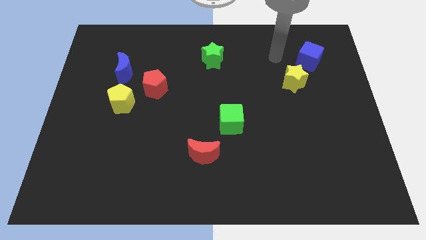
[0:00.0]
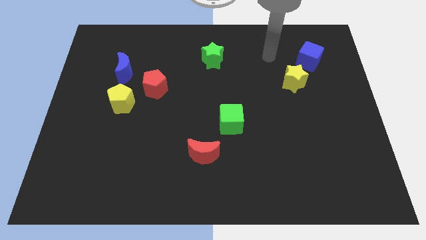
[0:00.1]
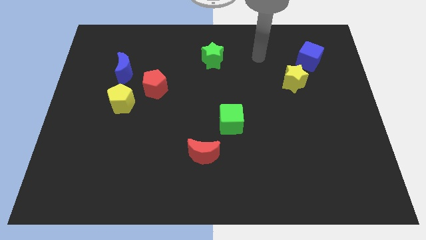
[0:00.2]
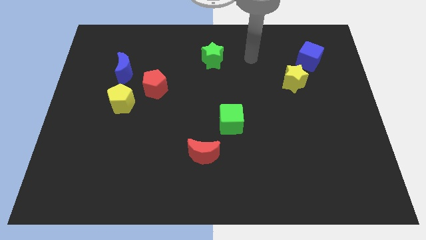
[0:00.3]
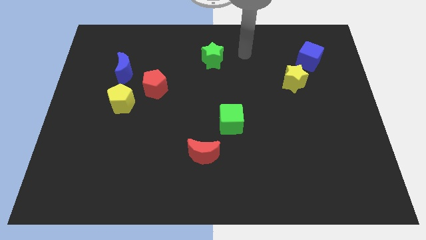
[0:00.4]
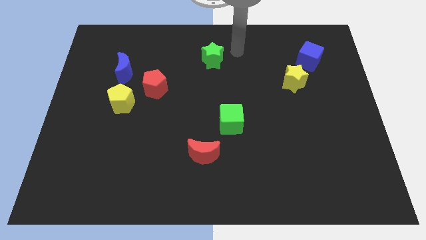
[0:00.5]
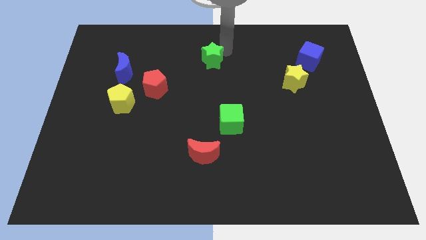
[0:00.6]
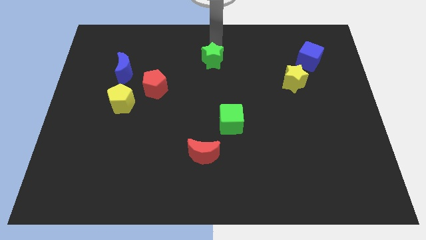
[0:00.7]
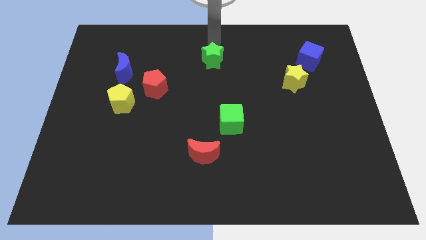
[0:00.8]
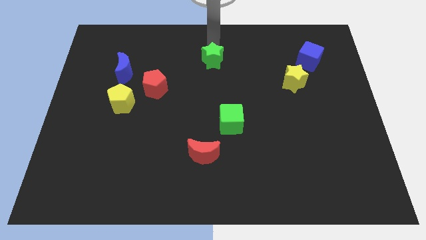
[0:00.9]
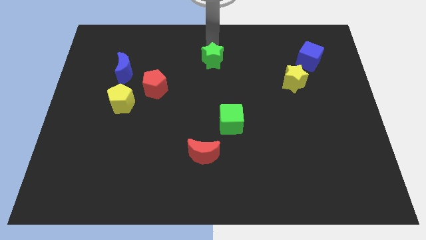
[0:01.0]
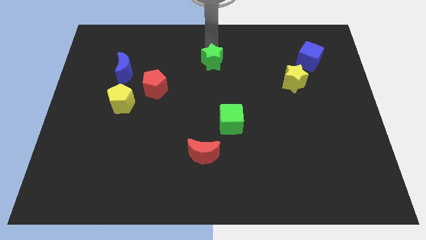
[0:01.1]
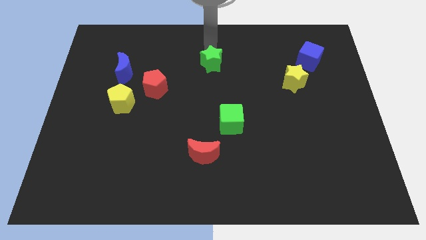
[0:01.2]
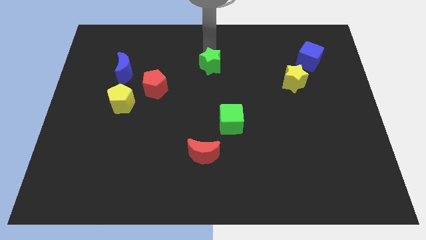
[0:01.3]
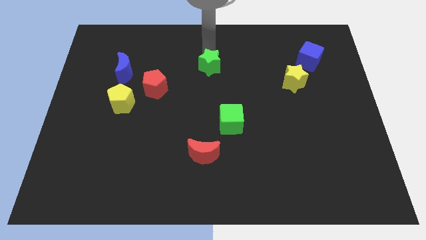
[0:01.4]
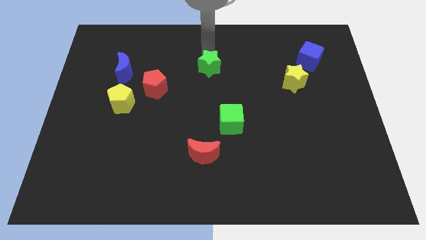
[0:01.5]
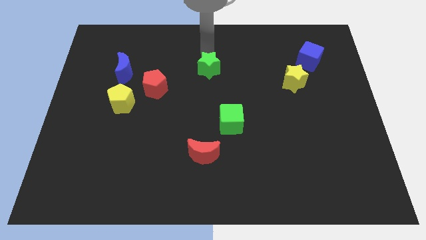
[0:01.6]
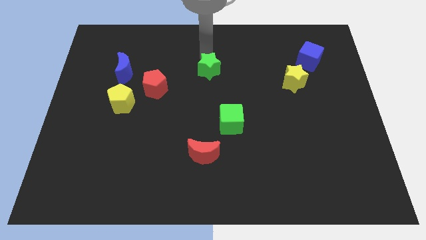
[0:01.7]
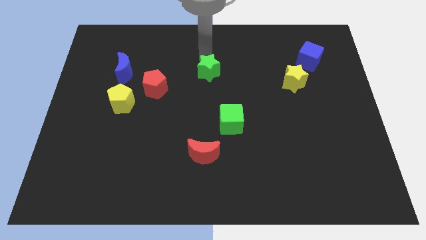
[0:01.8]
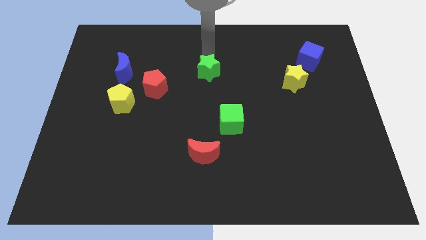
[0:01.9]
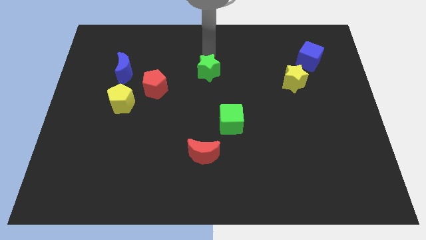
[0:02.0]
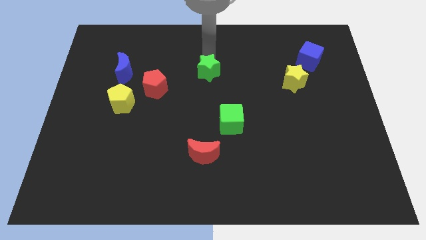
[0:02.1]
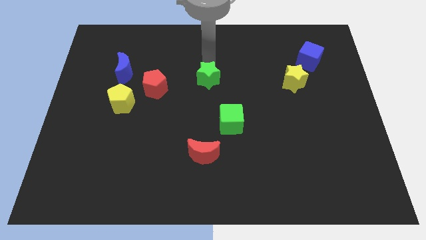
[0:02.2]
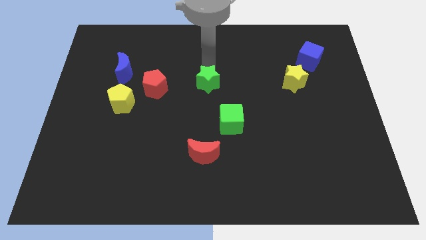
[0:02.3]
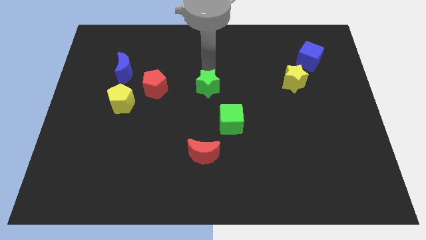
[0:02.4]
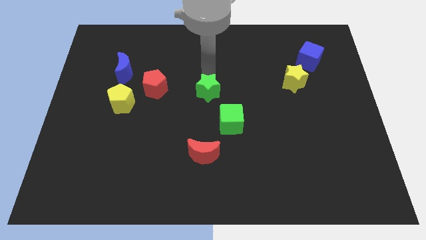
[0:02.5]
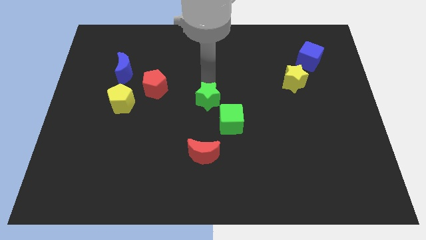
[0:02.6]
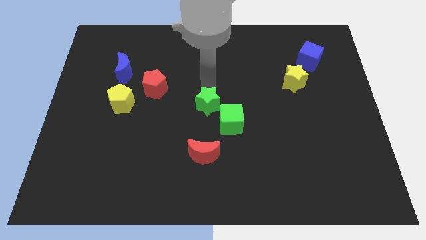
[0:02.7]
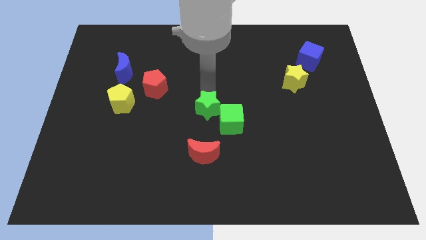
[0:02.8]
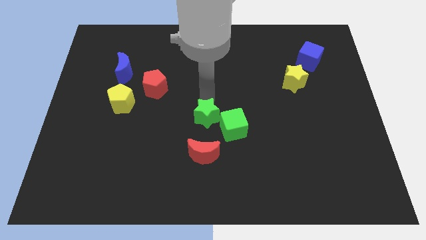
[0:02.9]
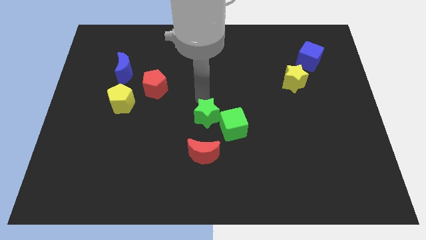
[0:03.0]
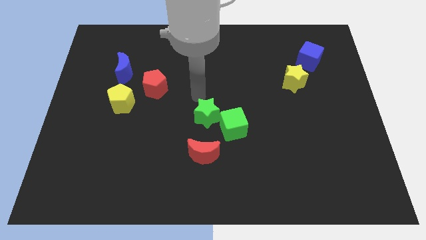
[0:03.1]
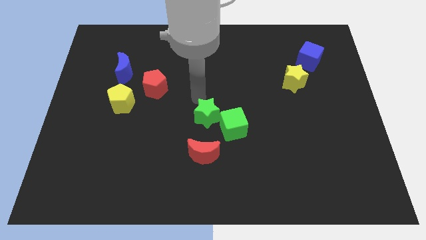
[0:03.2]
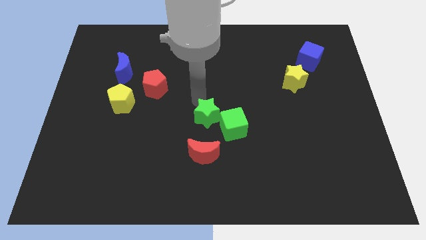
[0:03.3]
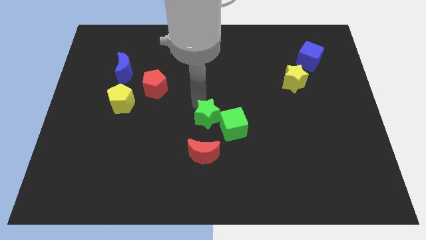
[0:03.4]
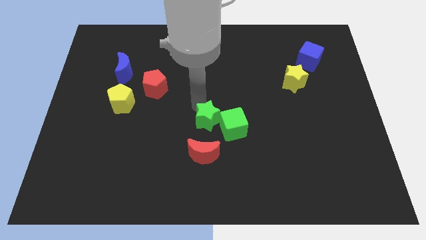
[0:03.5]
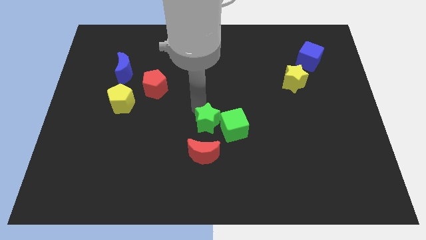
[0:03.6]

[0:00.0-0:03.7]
slide the green star downwards

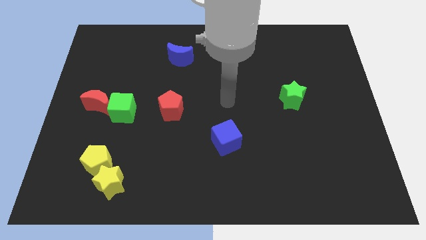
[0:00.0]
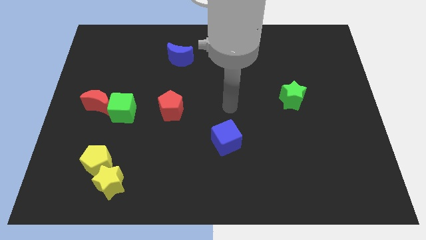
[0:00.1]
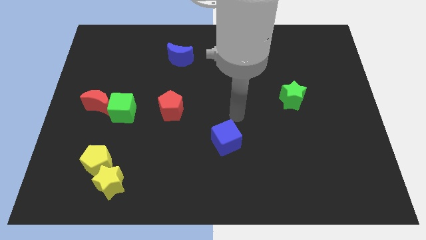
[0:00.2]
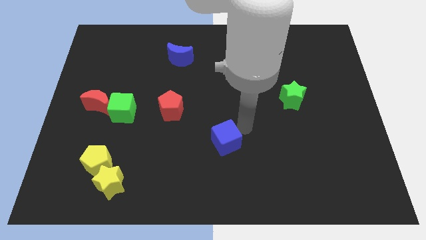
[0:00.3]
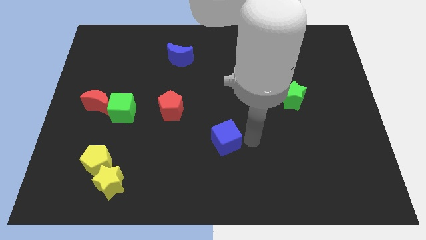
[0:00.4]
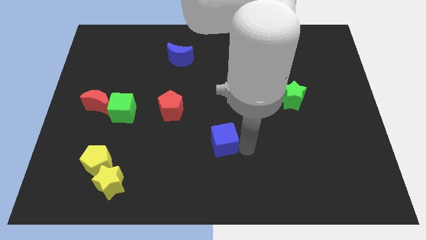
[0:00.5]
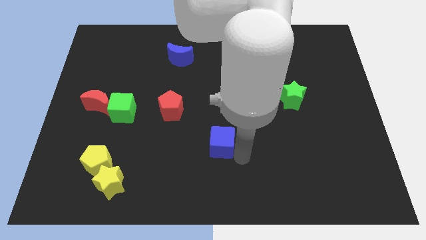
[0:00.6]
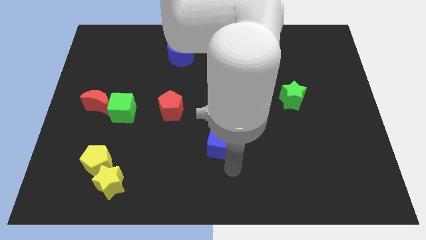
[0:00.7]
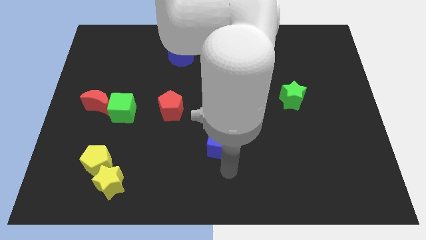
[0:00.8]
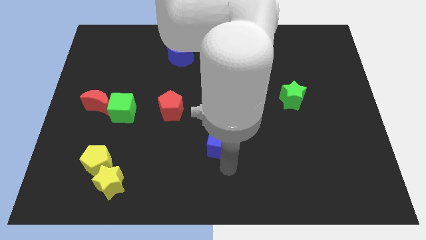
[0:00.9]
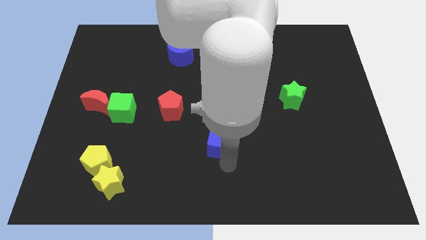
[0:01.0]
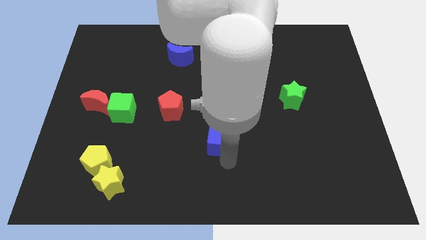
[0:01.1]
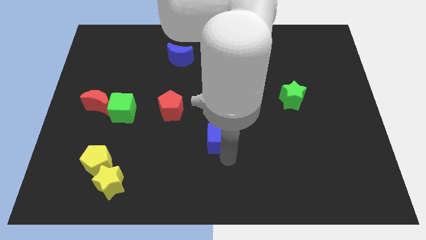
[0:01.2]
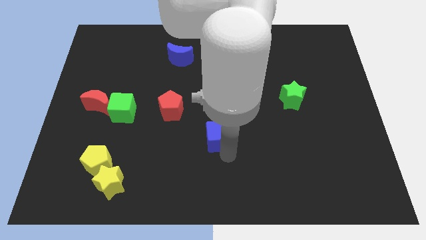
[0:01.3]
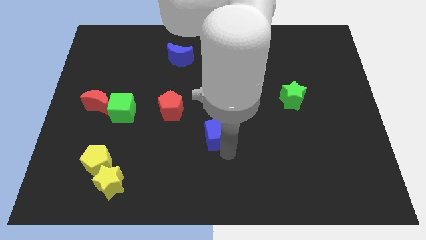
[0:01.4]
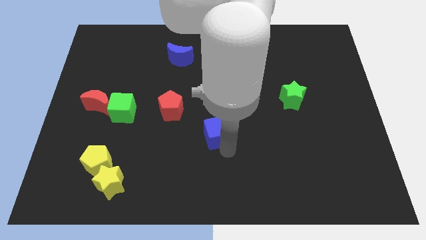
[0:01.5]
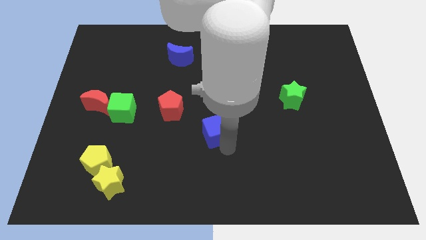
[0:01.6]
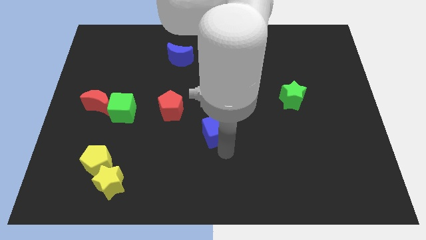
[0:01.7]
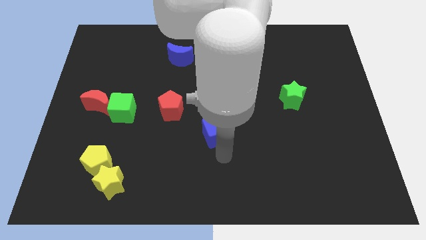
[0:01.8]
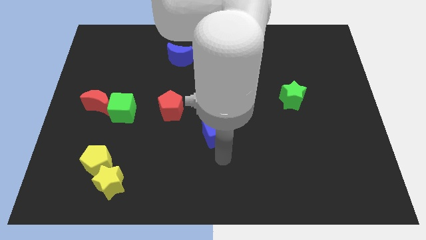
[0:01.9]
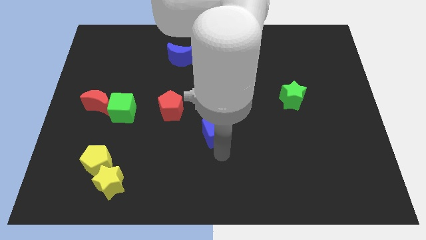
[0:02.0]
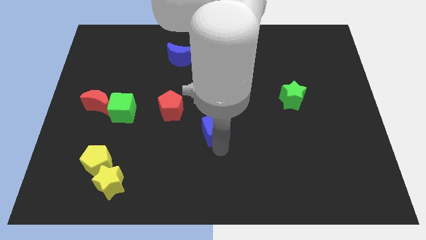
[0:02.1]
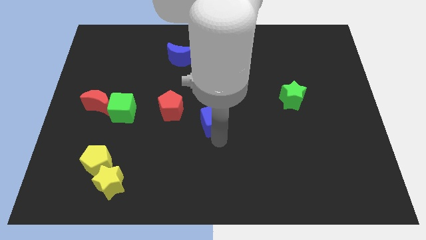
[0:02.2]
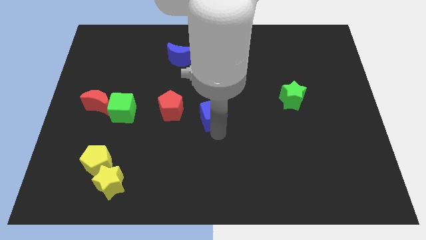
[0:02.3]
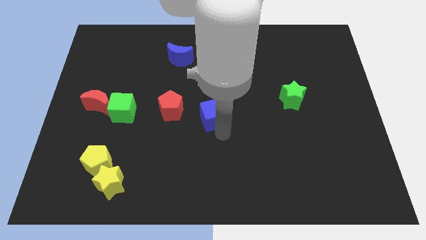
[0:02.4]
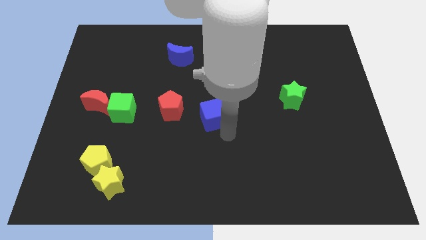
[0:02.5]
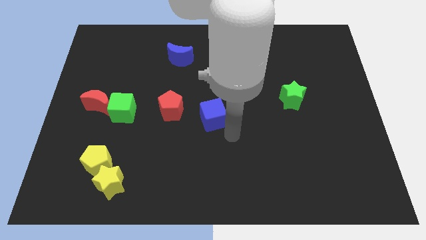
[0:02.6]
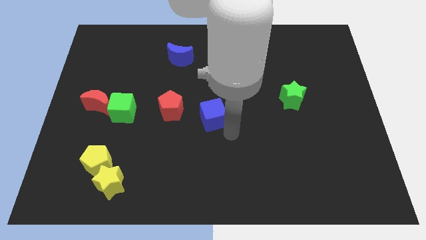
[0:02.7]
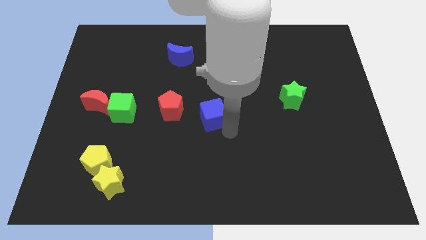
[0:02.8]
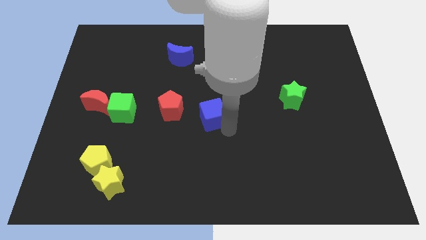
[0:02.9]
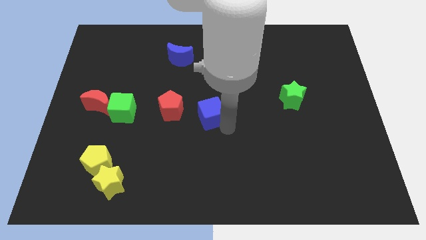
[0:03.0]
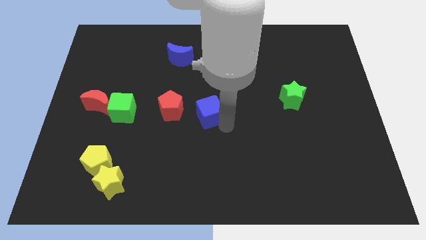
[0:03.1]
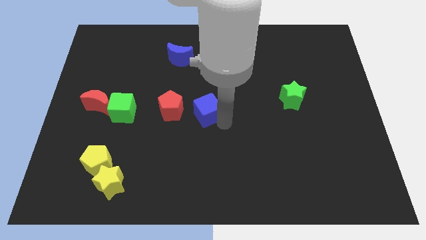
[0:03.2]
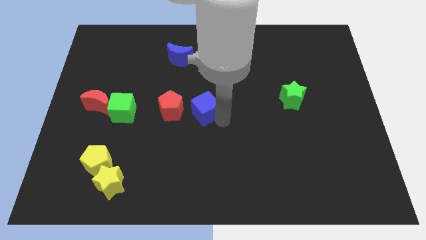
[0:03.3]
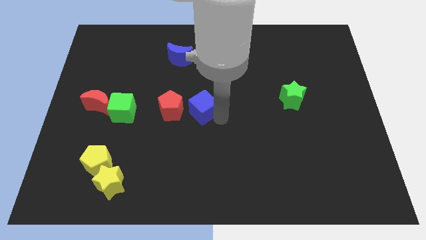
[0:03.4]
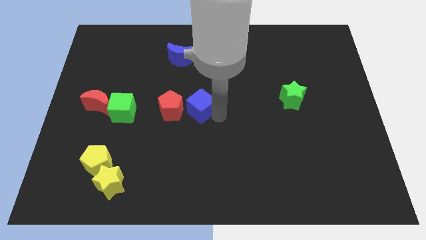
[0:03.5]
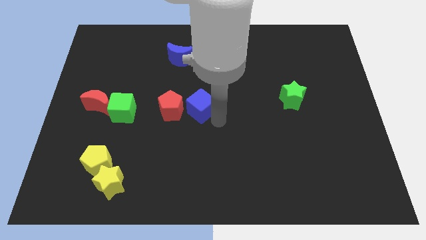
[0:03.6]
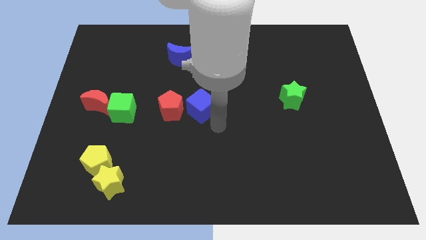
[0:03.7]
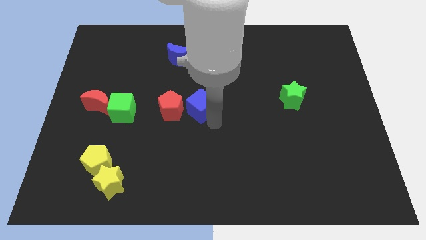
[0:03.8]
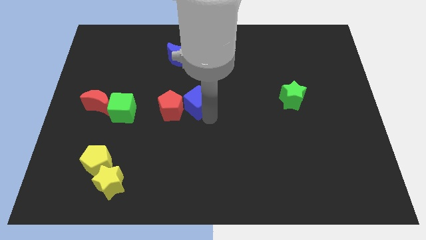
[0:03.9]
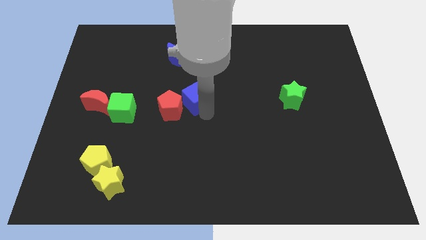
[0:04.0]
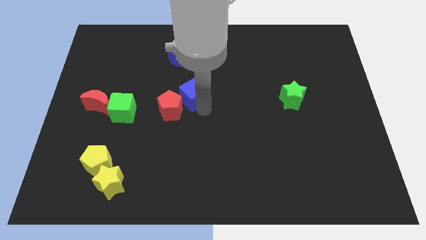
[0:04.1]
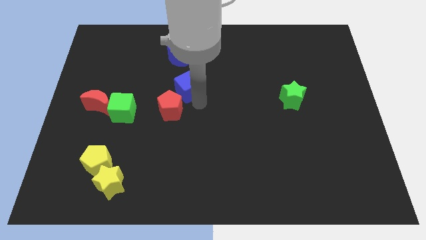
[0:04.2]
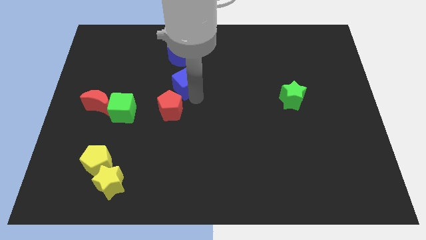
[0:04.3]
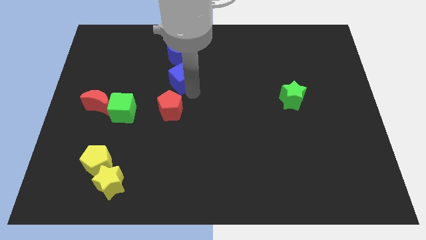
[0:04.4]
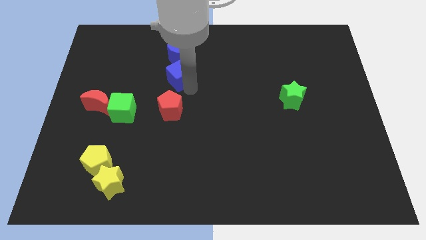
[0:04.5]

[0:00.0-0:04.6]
push the blue cube upwards and left
